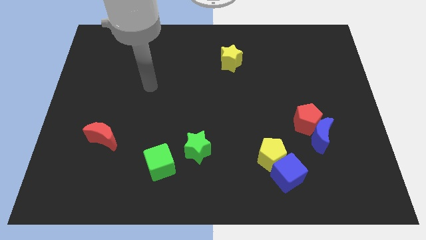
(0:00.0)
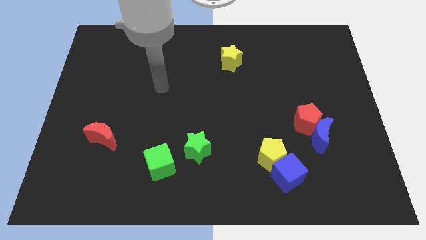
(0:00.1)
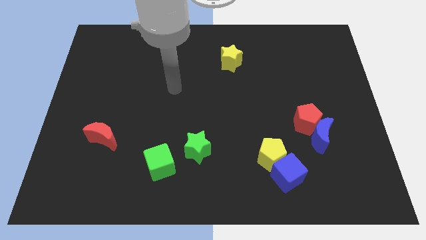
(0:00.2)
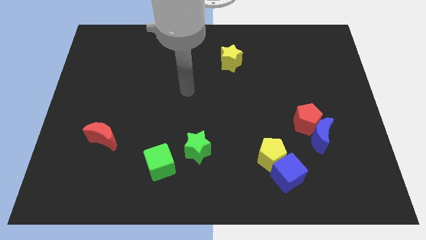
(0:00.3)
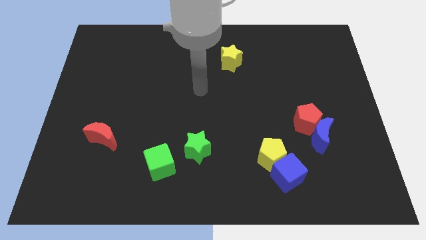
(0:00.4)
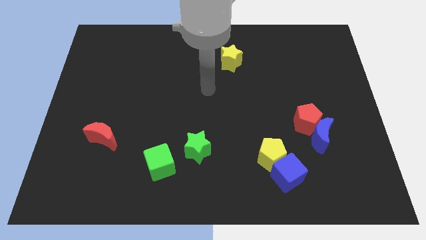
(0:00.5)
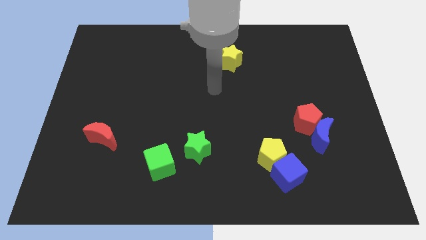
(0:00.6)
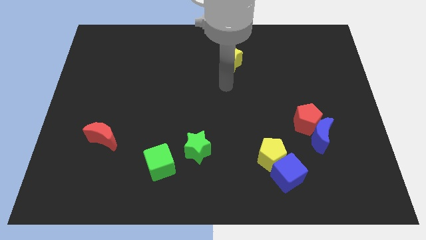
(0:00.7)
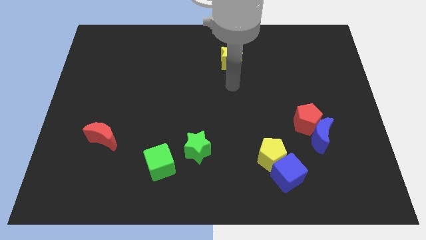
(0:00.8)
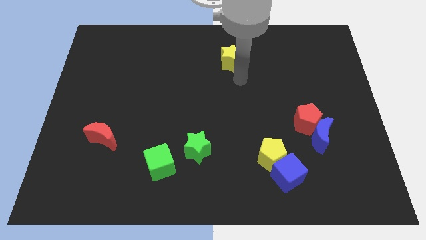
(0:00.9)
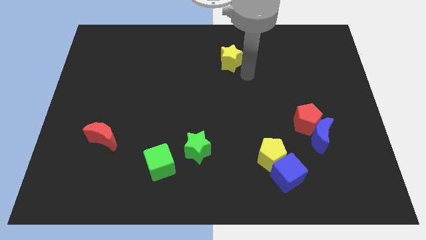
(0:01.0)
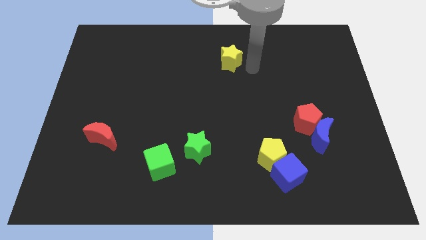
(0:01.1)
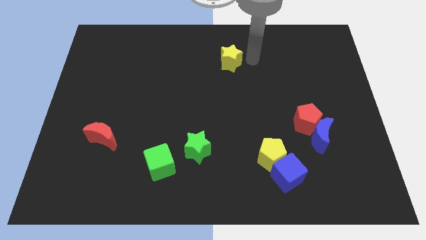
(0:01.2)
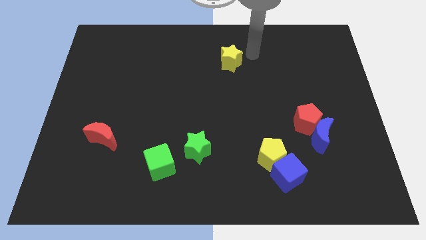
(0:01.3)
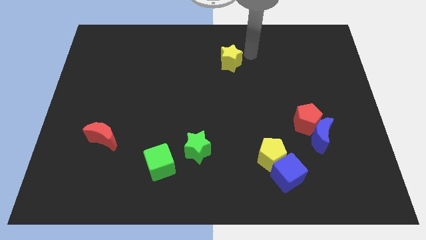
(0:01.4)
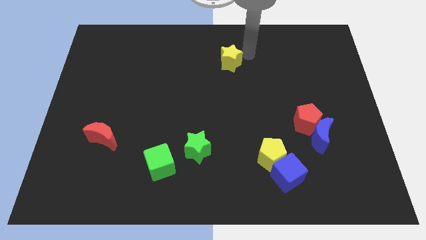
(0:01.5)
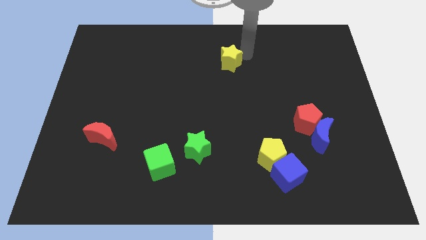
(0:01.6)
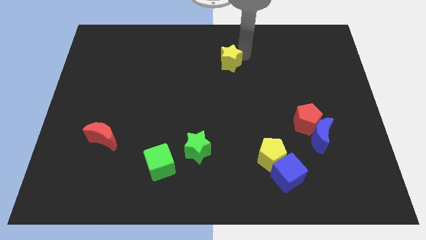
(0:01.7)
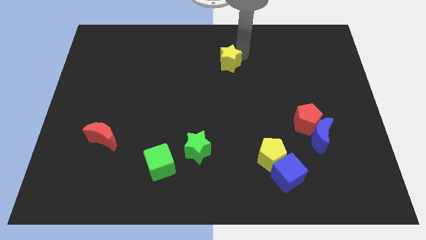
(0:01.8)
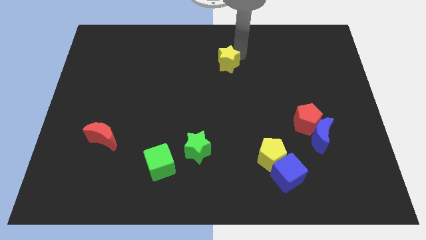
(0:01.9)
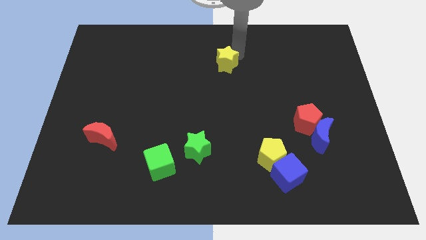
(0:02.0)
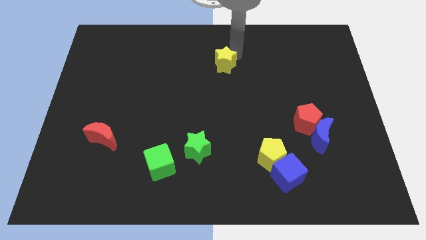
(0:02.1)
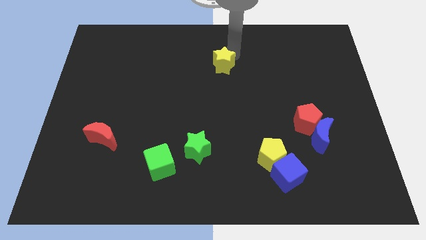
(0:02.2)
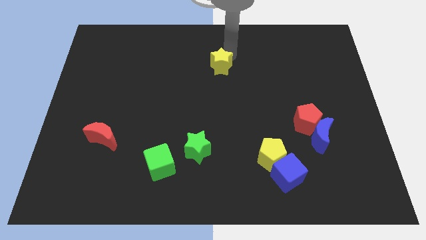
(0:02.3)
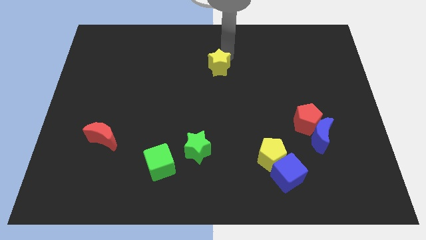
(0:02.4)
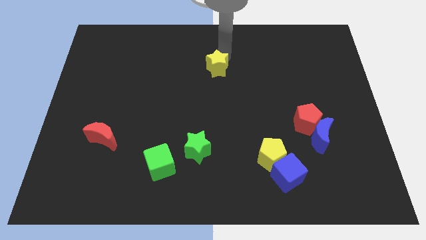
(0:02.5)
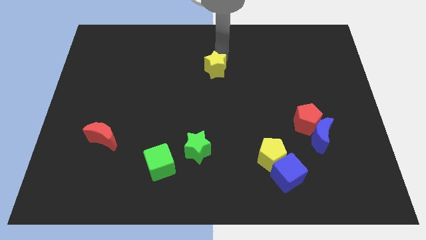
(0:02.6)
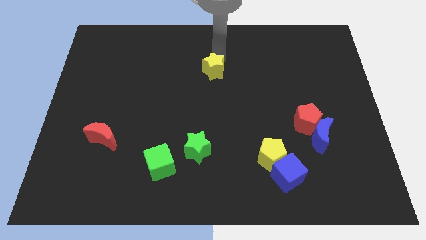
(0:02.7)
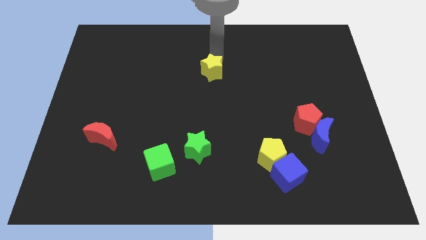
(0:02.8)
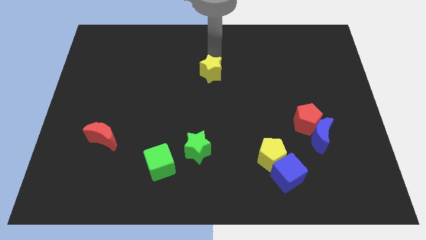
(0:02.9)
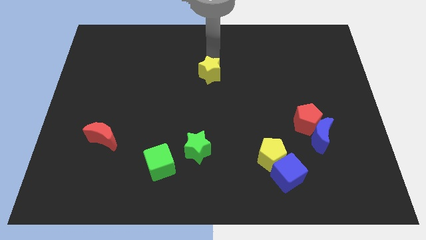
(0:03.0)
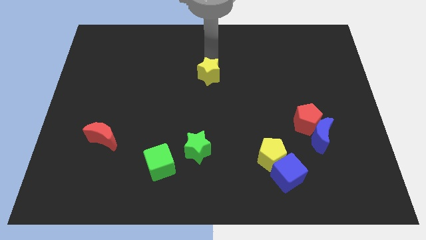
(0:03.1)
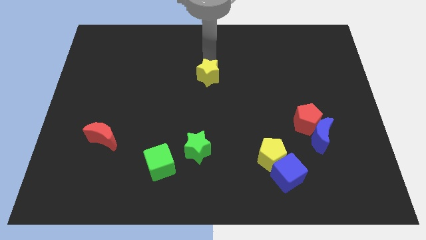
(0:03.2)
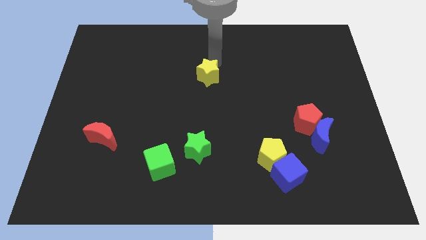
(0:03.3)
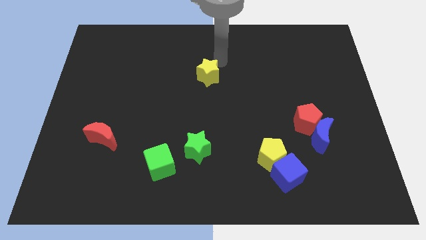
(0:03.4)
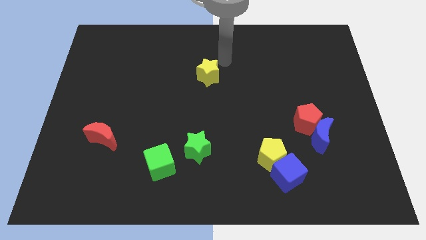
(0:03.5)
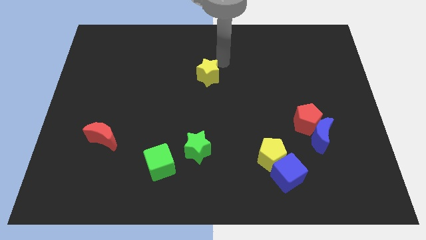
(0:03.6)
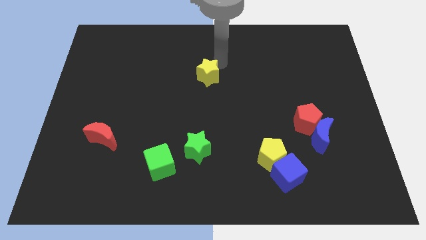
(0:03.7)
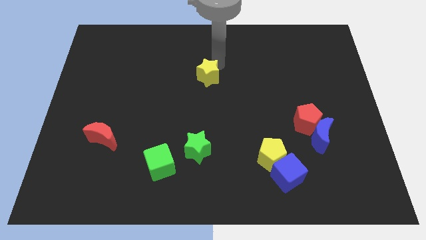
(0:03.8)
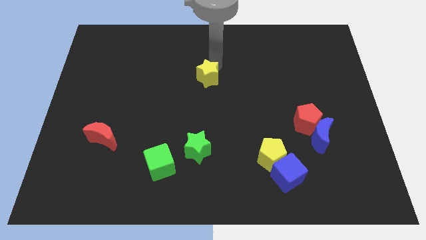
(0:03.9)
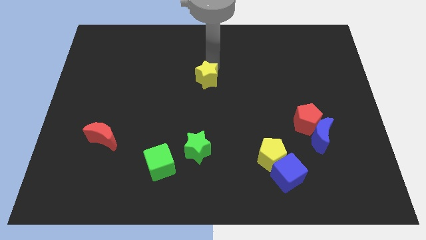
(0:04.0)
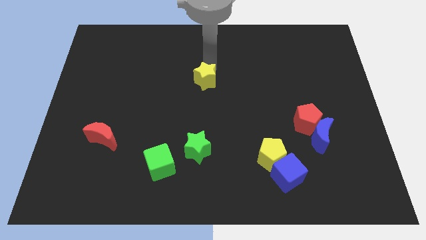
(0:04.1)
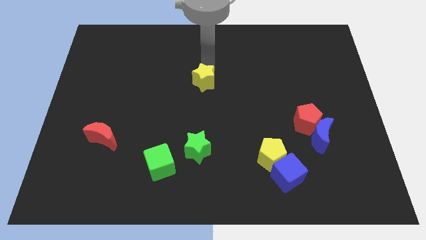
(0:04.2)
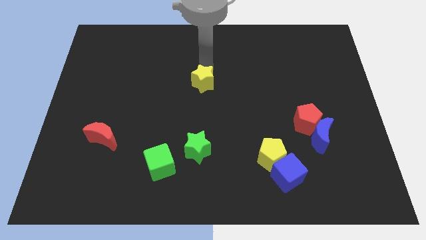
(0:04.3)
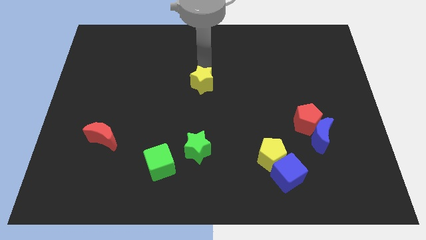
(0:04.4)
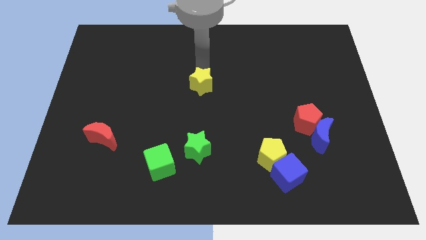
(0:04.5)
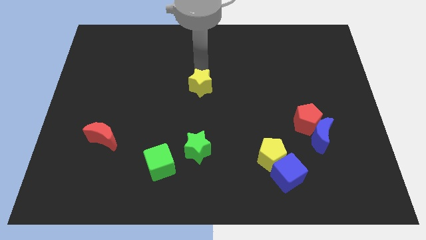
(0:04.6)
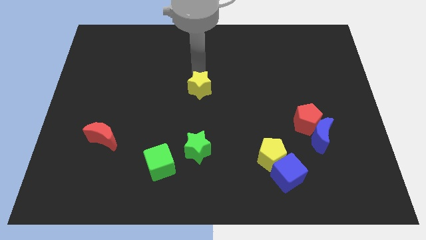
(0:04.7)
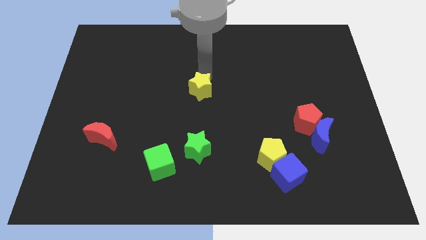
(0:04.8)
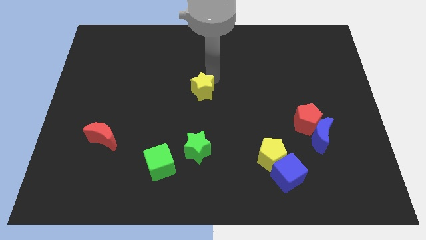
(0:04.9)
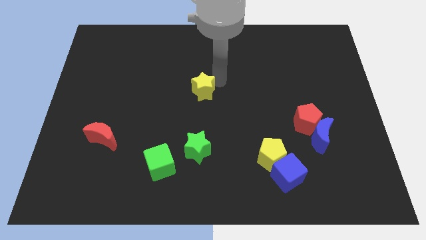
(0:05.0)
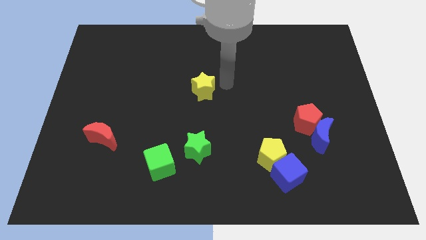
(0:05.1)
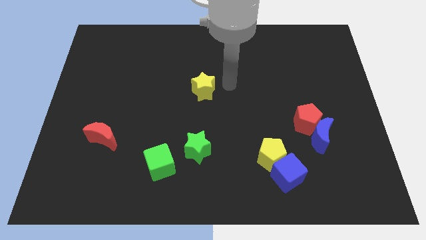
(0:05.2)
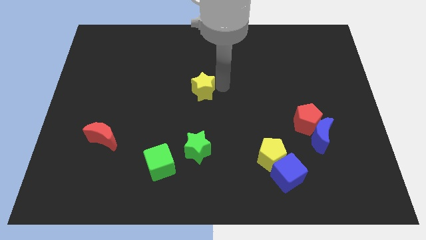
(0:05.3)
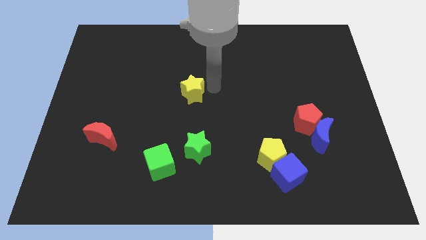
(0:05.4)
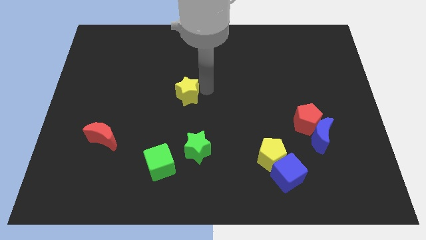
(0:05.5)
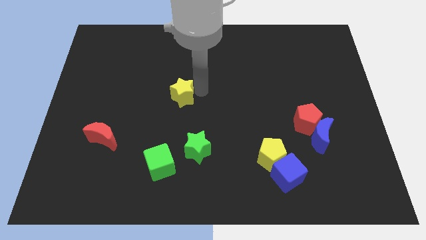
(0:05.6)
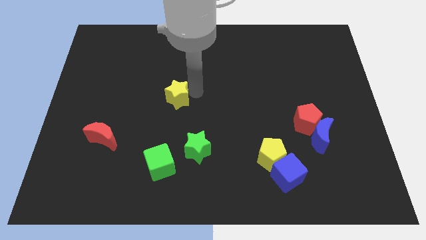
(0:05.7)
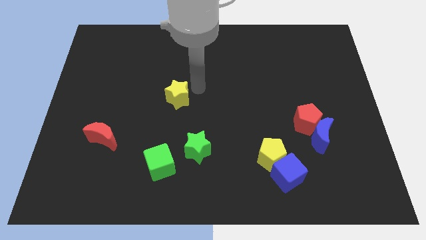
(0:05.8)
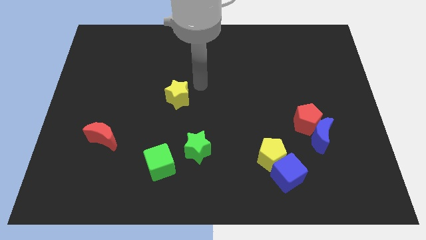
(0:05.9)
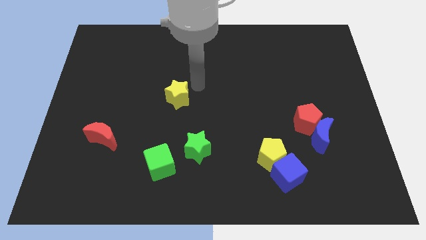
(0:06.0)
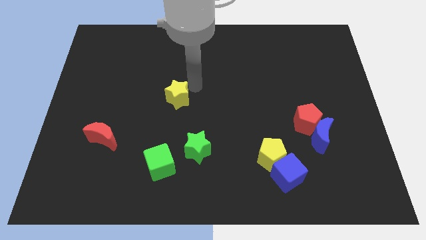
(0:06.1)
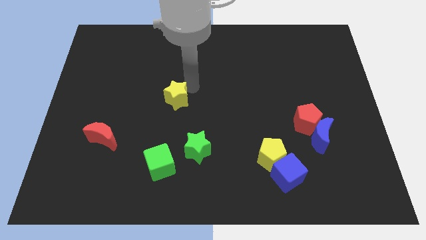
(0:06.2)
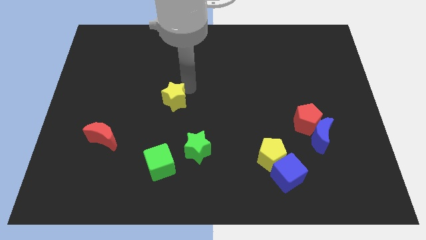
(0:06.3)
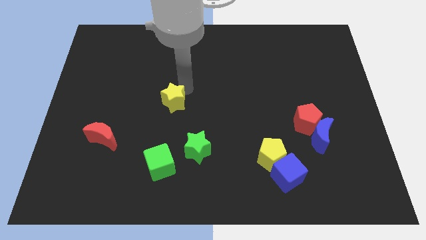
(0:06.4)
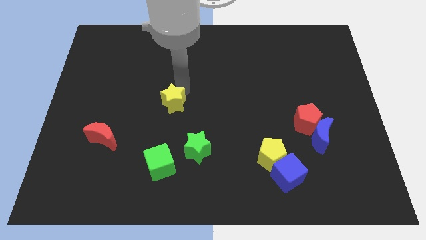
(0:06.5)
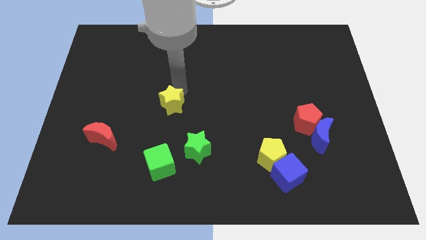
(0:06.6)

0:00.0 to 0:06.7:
push the yellow star down and then left

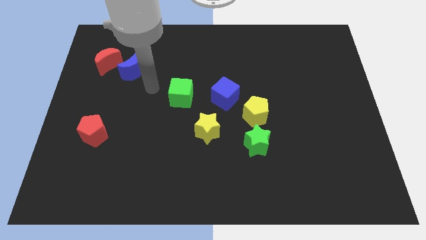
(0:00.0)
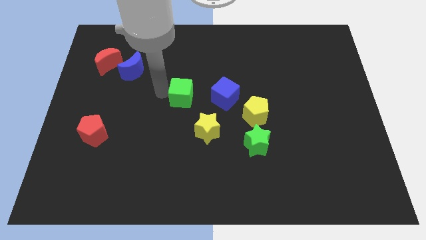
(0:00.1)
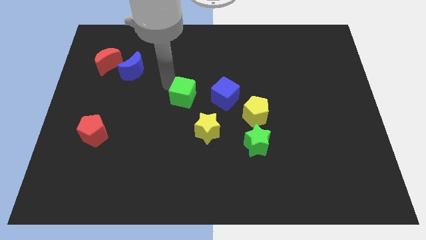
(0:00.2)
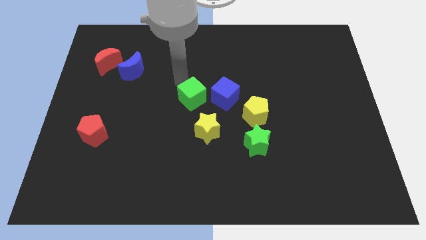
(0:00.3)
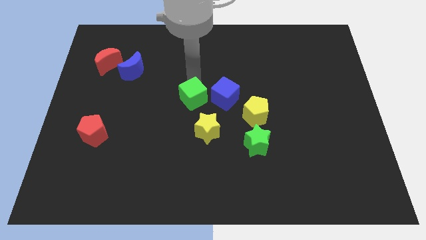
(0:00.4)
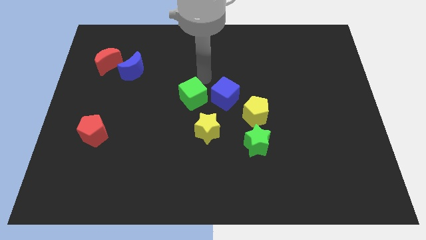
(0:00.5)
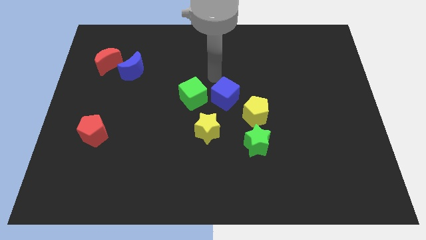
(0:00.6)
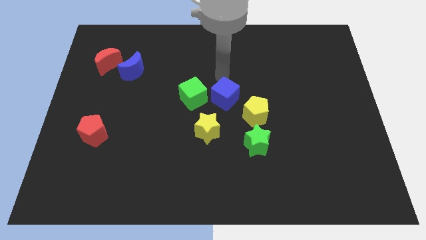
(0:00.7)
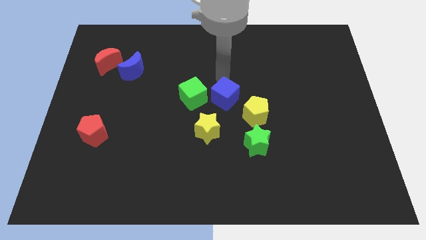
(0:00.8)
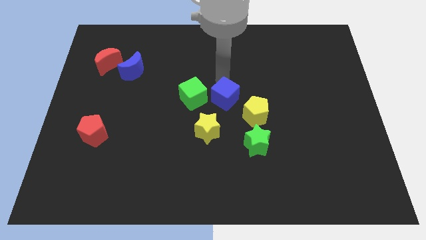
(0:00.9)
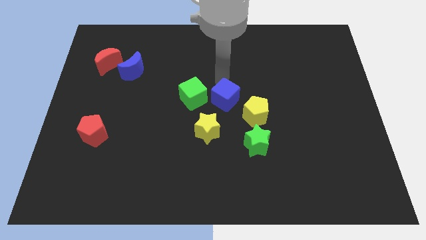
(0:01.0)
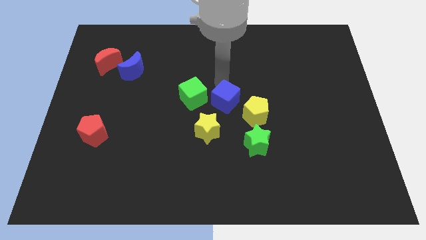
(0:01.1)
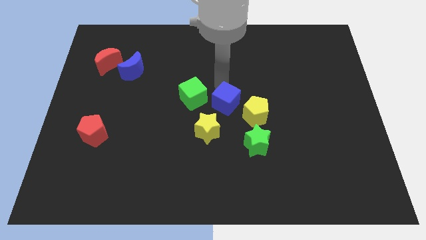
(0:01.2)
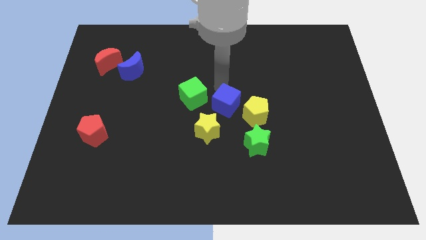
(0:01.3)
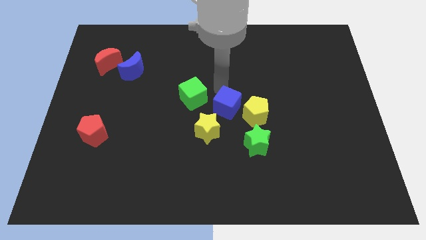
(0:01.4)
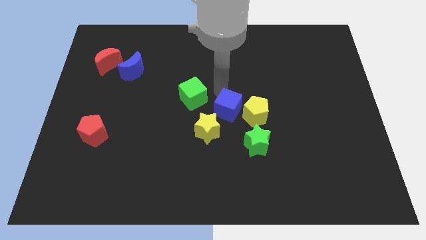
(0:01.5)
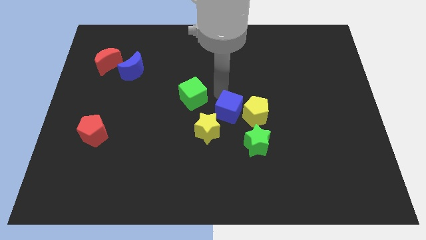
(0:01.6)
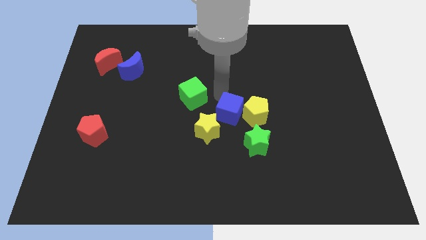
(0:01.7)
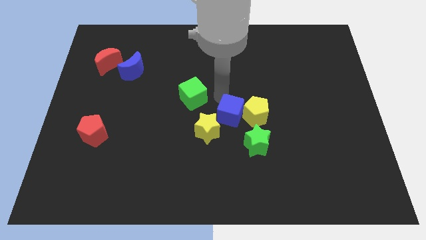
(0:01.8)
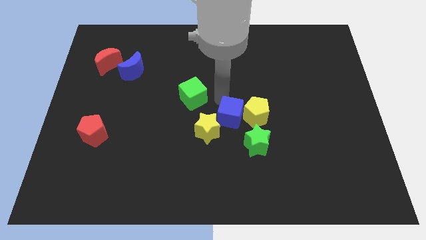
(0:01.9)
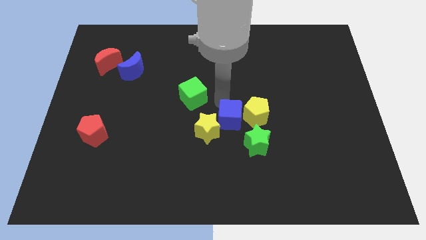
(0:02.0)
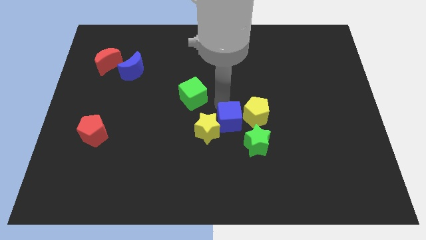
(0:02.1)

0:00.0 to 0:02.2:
slide the blue cube a bit down
